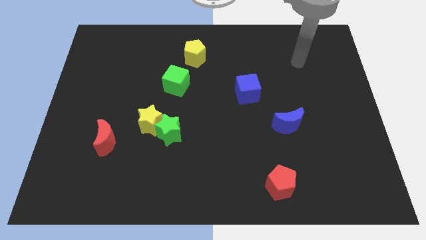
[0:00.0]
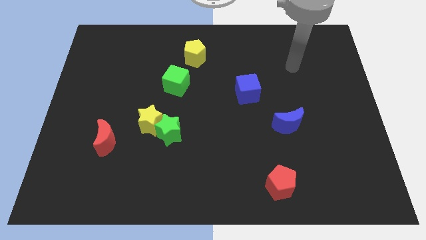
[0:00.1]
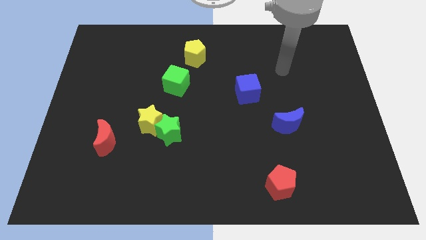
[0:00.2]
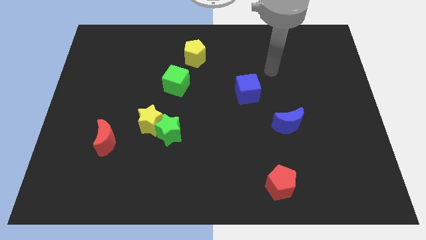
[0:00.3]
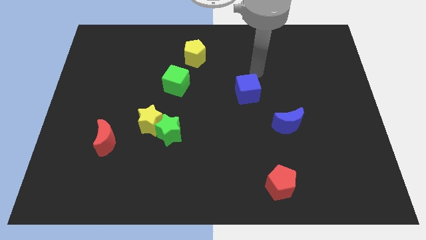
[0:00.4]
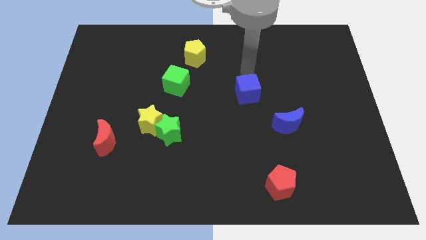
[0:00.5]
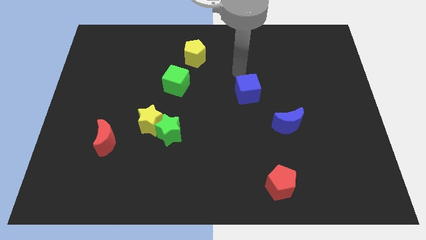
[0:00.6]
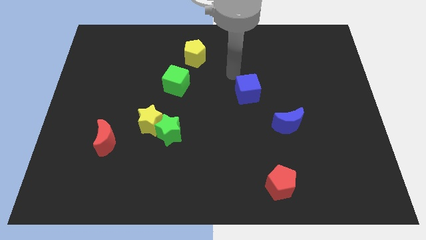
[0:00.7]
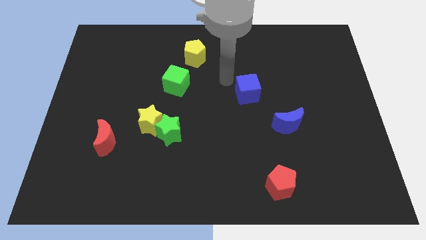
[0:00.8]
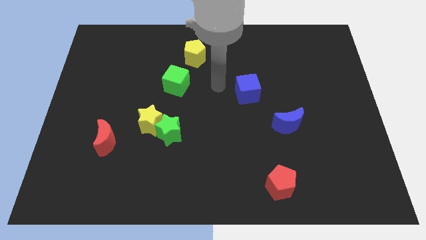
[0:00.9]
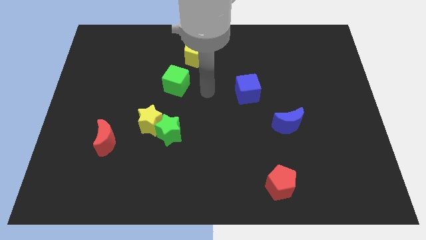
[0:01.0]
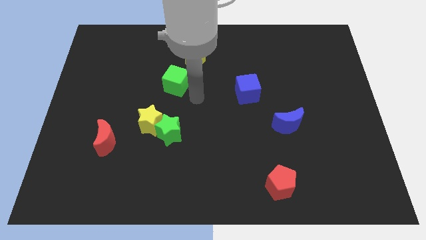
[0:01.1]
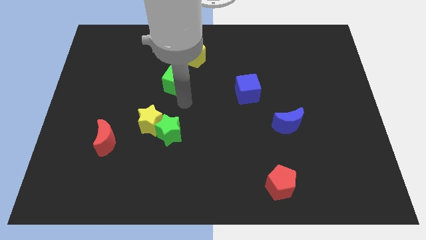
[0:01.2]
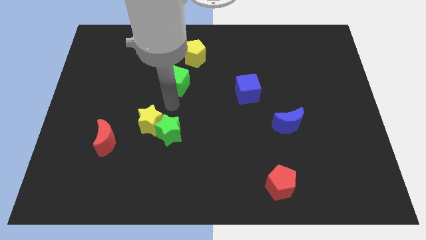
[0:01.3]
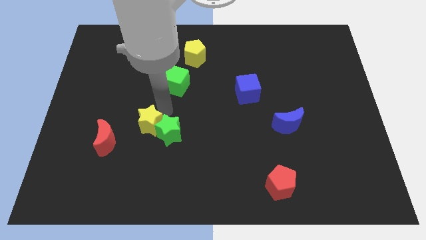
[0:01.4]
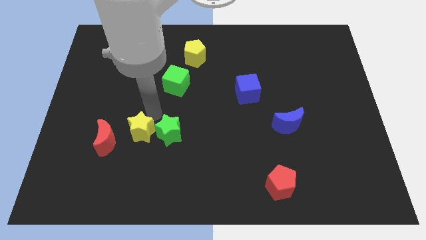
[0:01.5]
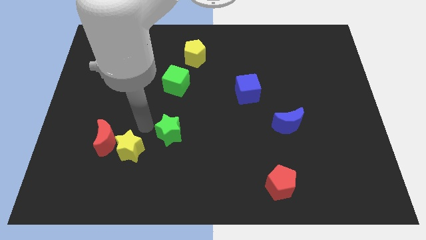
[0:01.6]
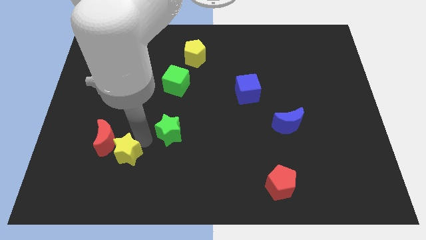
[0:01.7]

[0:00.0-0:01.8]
pull the green star apart from the yellow star

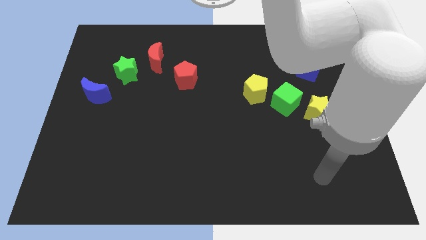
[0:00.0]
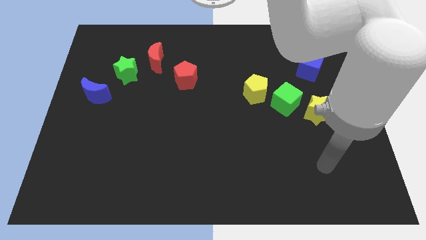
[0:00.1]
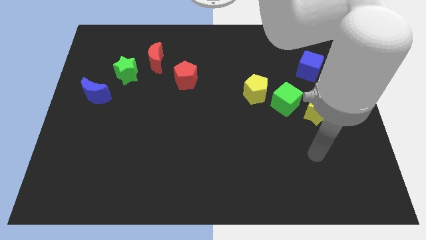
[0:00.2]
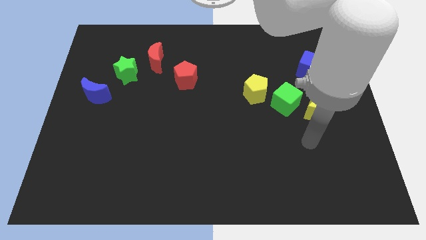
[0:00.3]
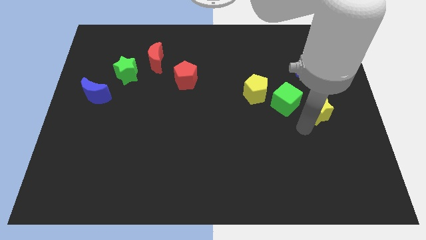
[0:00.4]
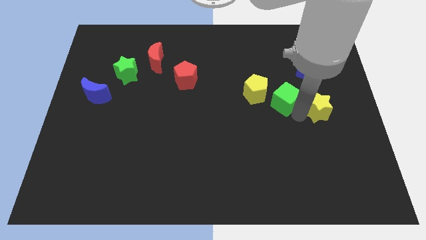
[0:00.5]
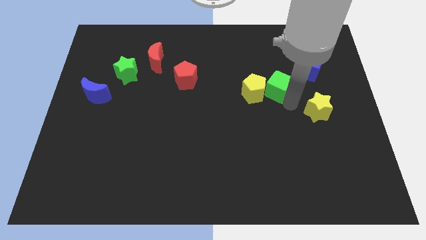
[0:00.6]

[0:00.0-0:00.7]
pull the yellow star apart from the green cube

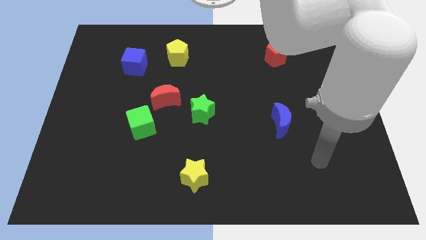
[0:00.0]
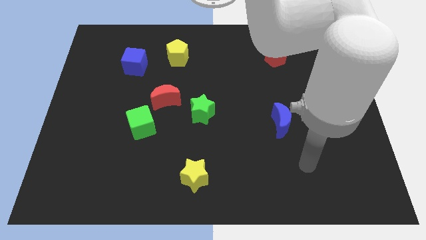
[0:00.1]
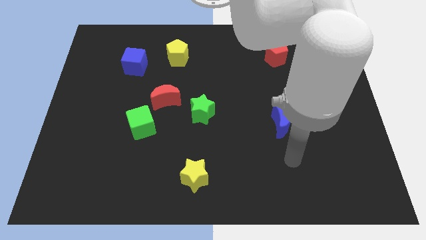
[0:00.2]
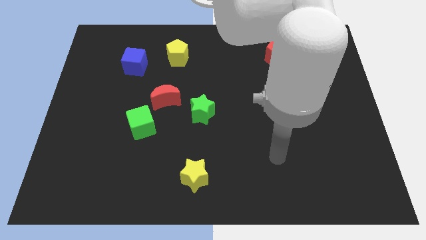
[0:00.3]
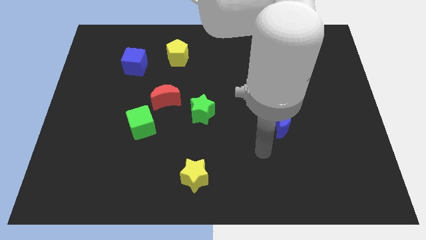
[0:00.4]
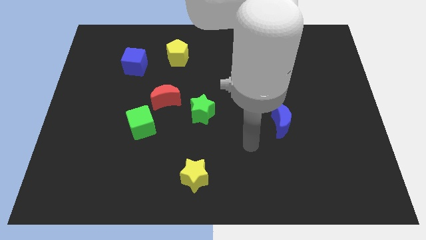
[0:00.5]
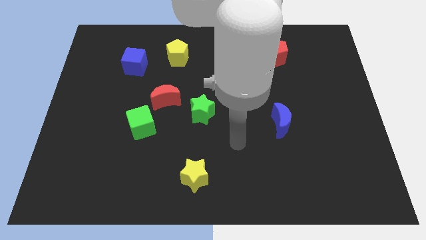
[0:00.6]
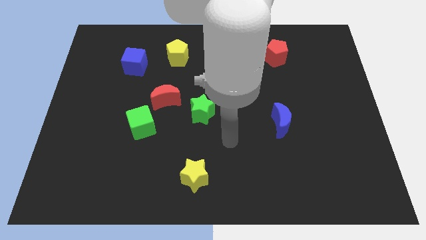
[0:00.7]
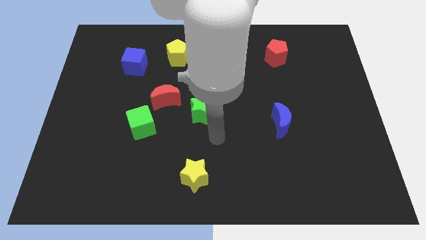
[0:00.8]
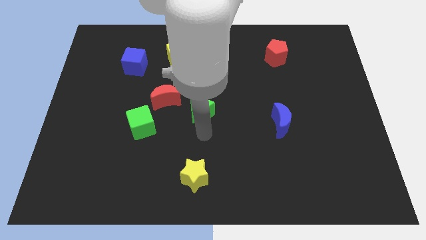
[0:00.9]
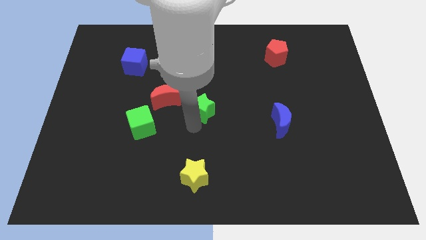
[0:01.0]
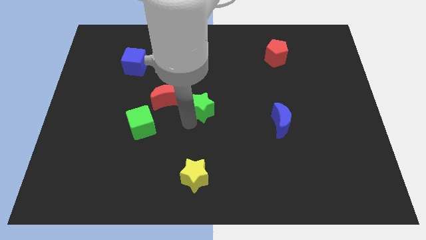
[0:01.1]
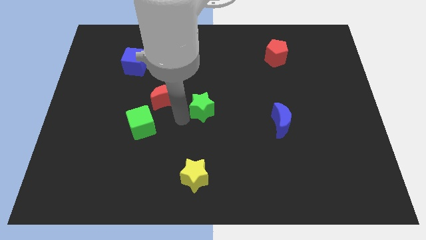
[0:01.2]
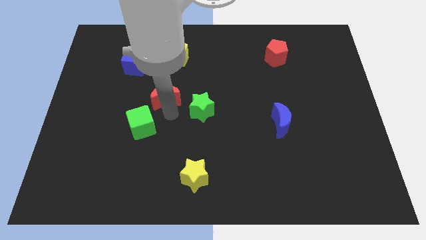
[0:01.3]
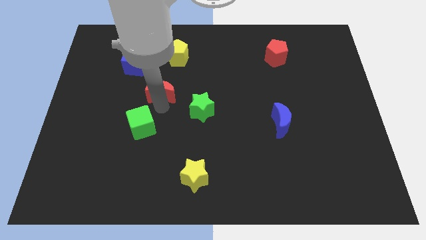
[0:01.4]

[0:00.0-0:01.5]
pull the green cube apart from the red moon

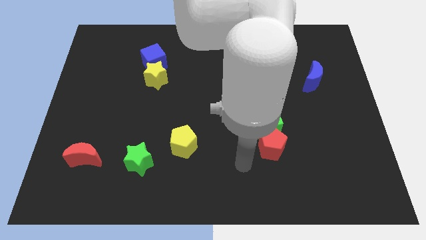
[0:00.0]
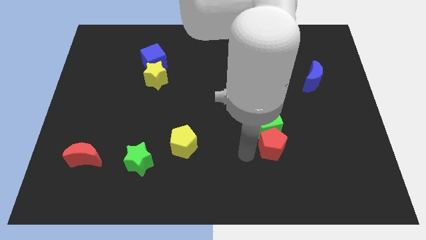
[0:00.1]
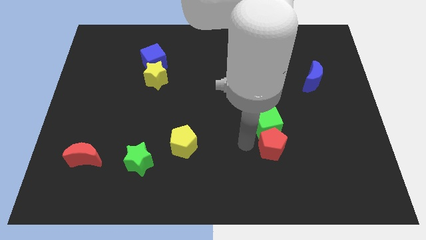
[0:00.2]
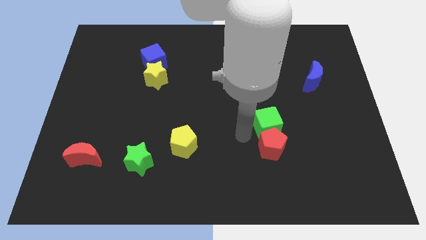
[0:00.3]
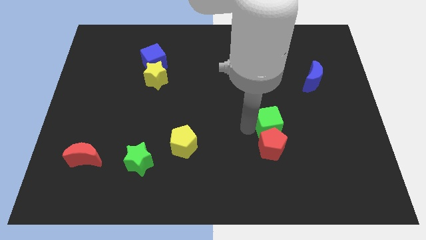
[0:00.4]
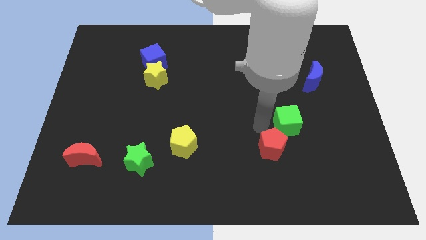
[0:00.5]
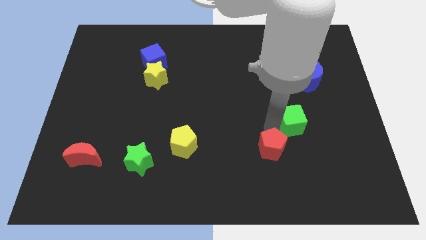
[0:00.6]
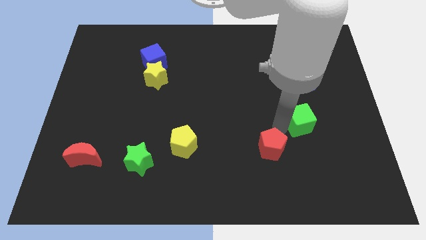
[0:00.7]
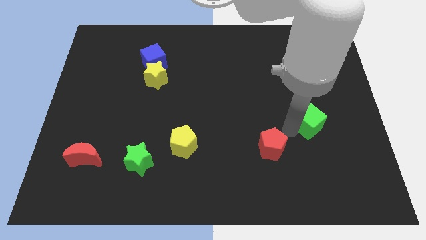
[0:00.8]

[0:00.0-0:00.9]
pull the red pentagon apart from the green cube

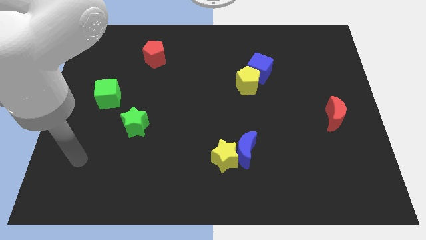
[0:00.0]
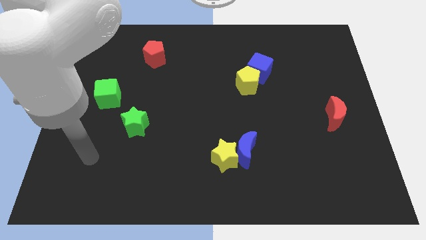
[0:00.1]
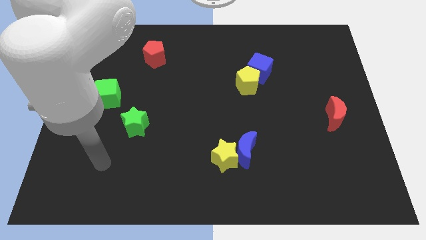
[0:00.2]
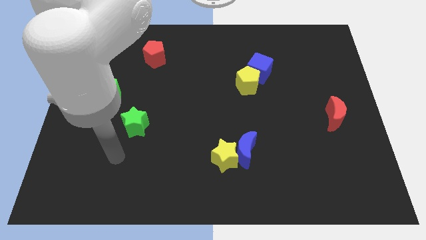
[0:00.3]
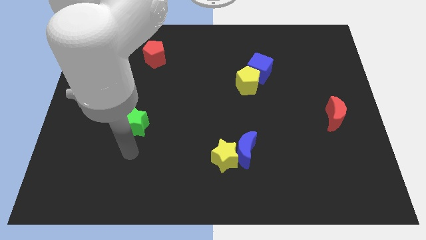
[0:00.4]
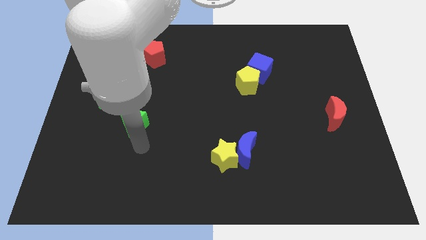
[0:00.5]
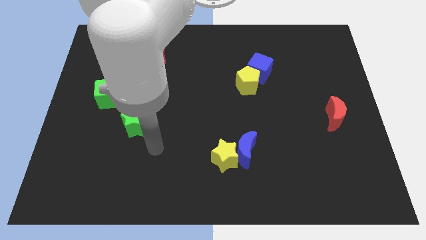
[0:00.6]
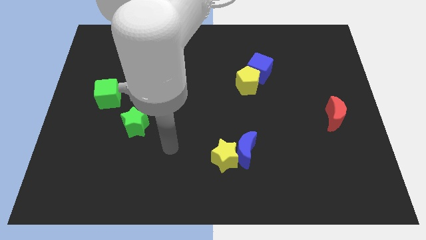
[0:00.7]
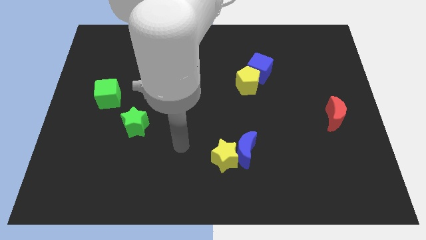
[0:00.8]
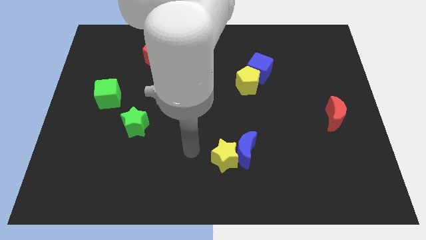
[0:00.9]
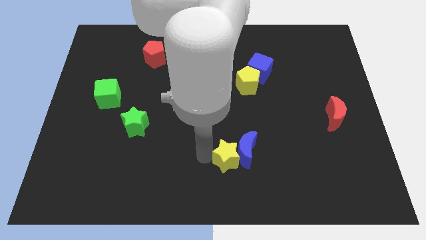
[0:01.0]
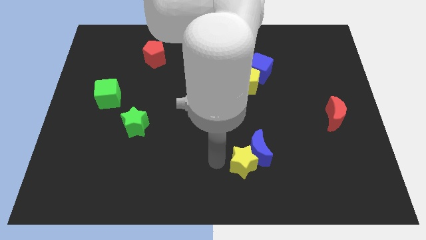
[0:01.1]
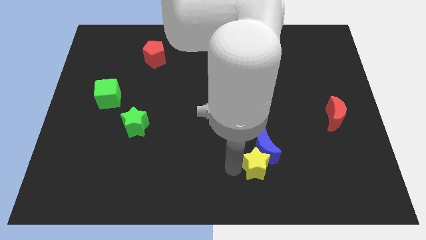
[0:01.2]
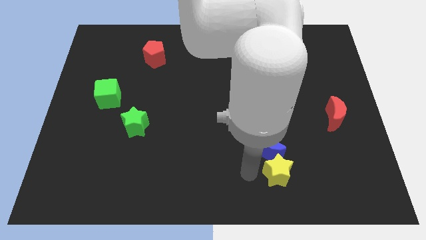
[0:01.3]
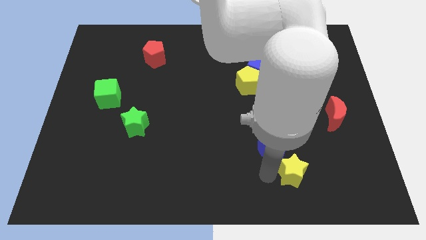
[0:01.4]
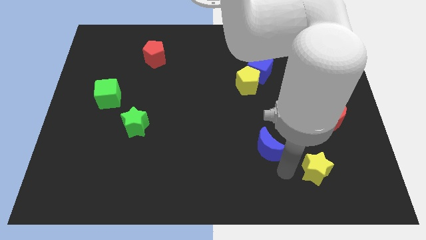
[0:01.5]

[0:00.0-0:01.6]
move the blue moon away from the yellow star

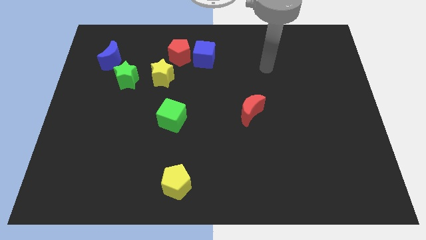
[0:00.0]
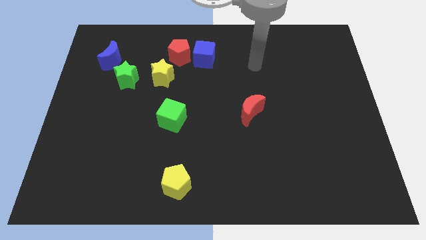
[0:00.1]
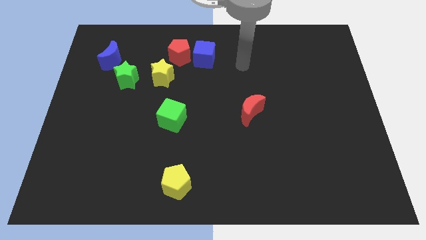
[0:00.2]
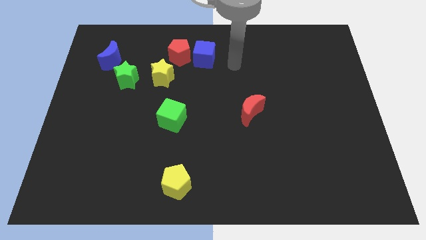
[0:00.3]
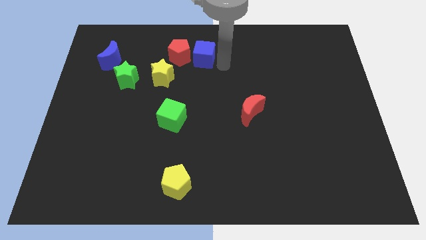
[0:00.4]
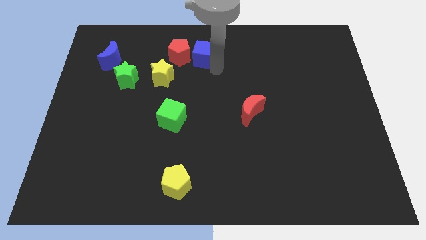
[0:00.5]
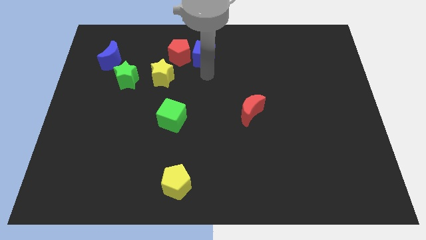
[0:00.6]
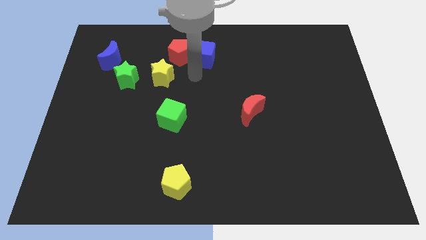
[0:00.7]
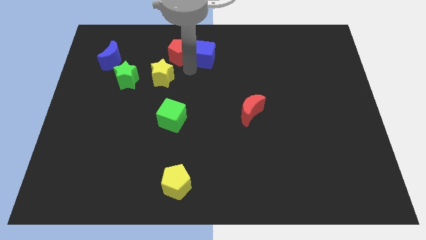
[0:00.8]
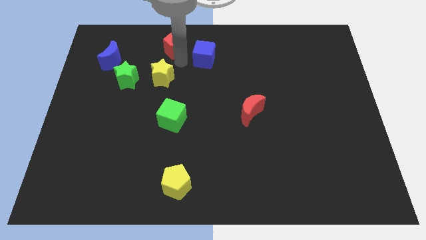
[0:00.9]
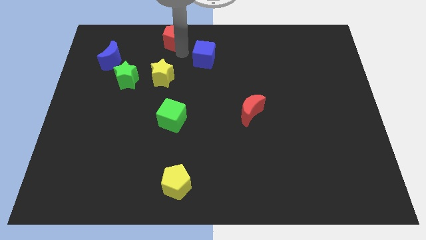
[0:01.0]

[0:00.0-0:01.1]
move the blue cube away from the red pentagon

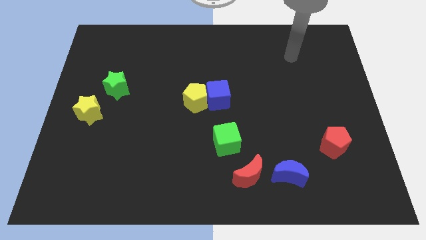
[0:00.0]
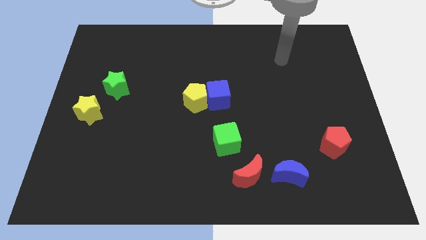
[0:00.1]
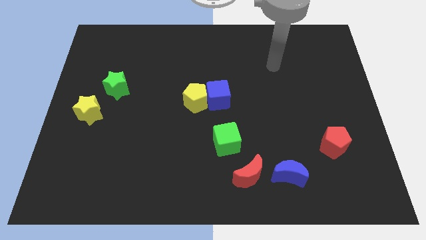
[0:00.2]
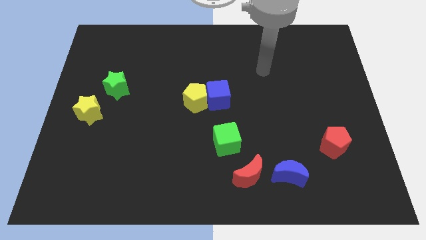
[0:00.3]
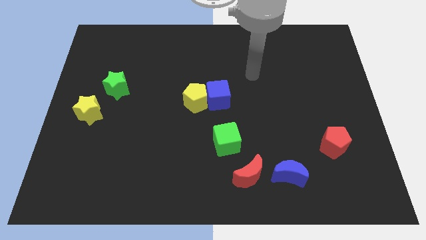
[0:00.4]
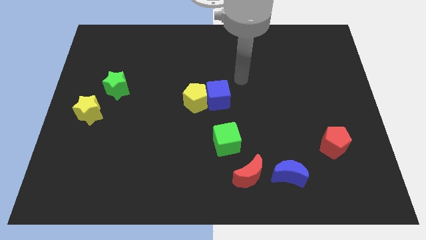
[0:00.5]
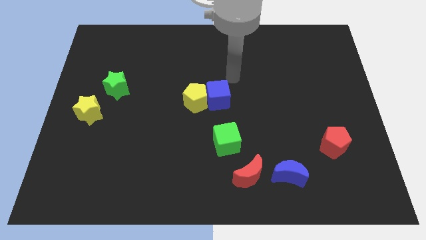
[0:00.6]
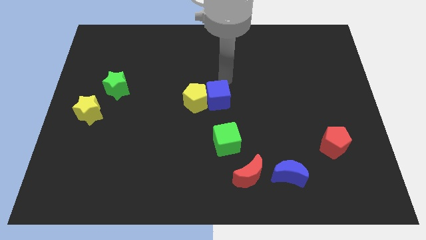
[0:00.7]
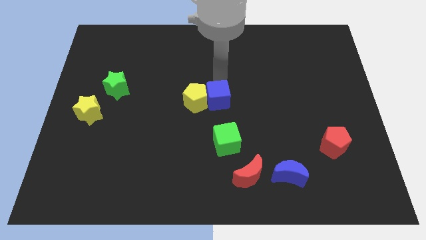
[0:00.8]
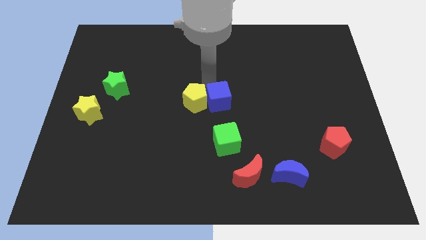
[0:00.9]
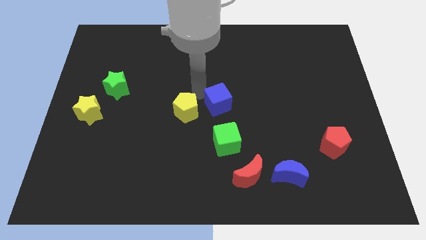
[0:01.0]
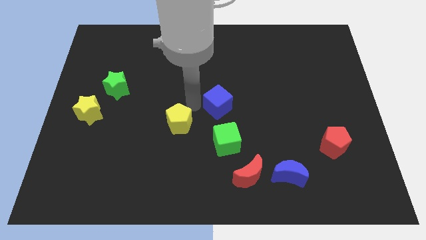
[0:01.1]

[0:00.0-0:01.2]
separate the blue cube from the yellow pentagon

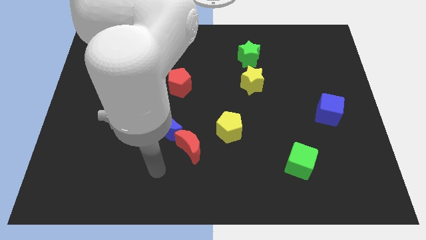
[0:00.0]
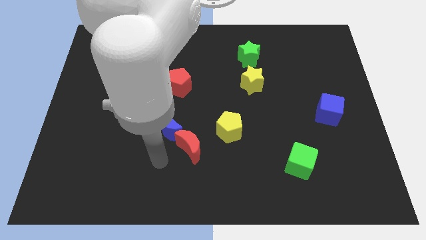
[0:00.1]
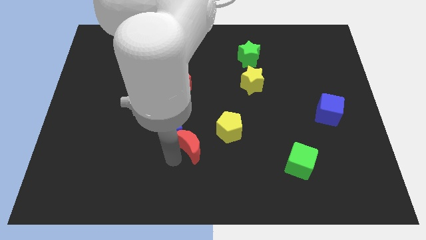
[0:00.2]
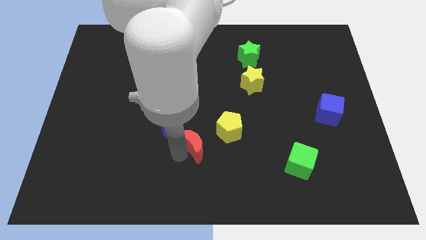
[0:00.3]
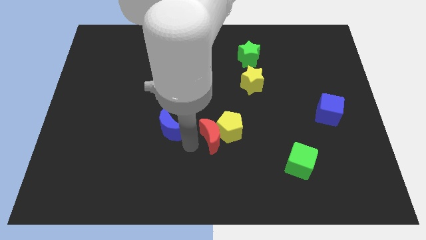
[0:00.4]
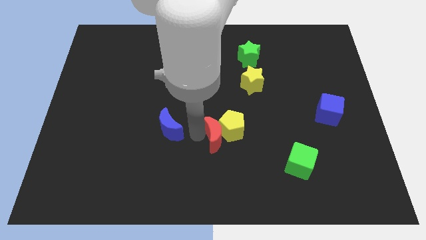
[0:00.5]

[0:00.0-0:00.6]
separate the blue moon from the red moon
